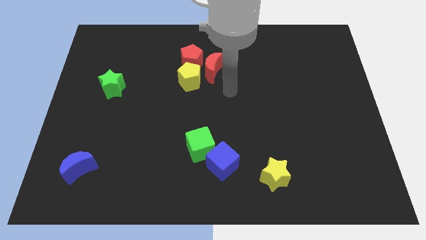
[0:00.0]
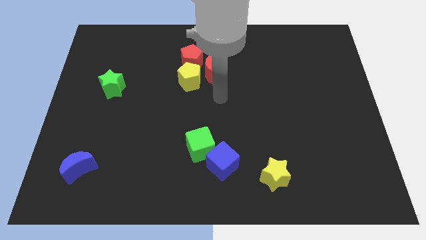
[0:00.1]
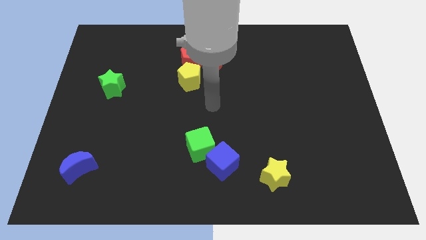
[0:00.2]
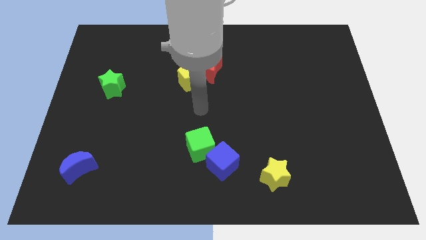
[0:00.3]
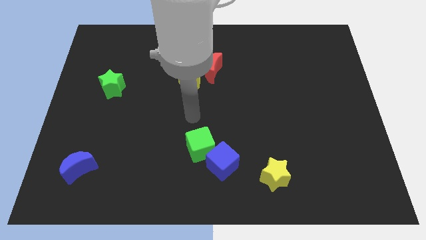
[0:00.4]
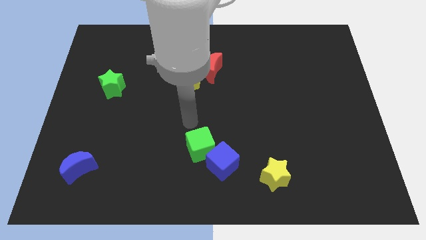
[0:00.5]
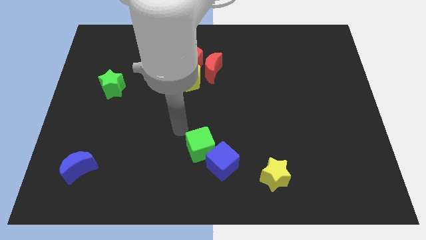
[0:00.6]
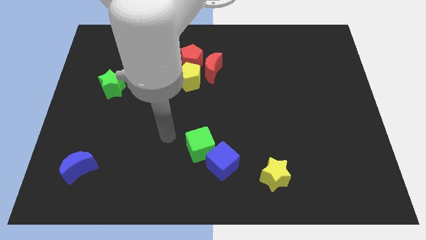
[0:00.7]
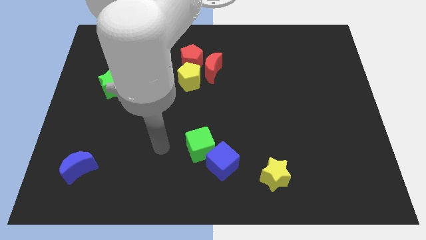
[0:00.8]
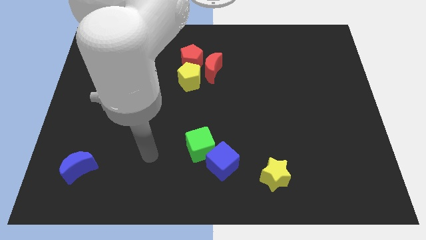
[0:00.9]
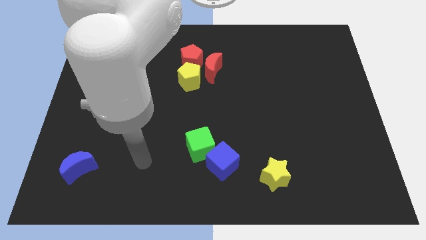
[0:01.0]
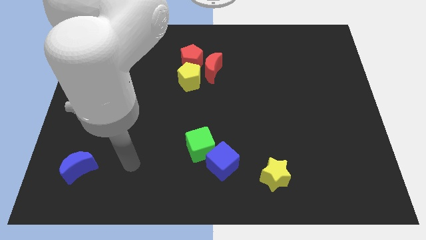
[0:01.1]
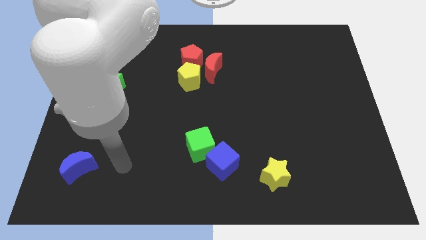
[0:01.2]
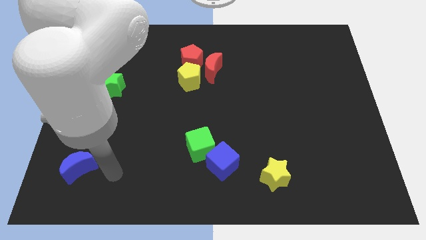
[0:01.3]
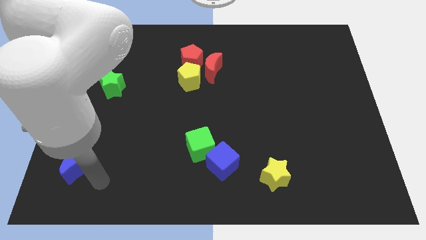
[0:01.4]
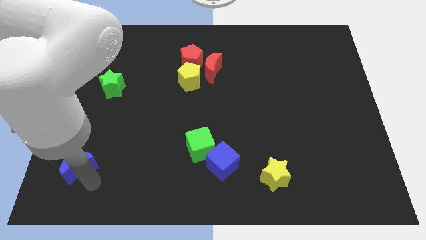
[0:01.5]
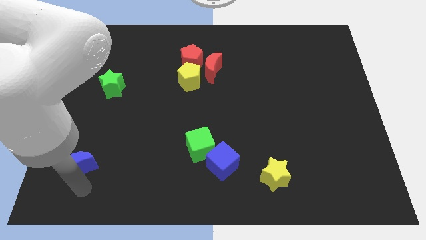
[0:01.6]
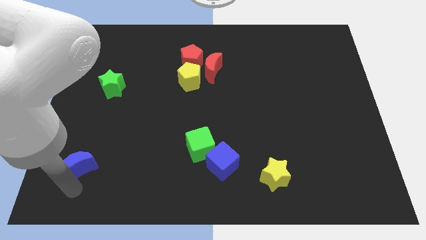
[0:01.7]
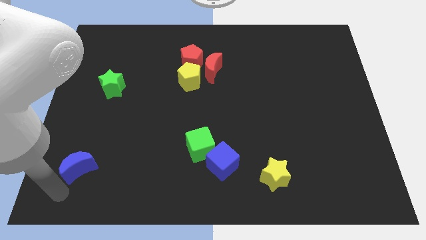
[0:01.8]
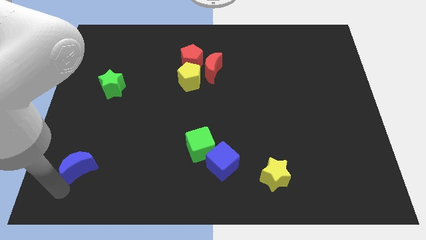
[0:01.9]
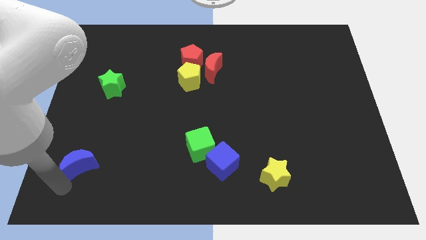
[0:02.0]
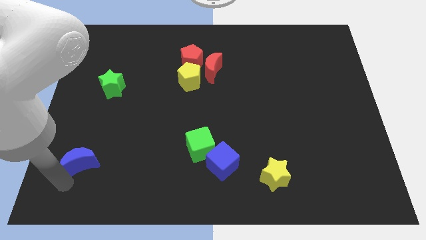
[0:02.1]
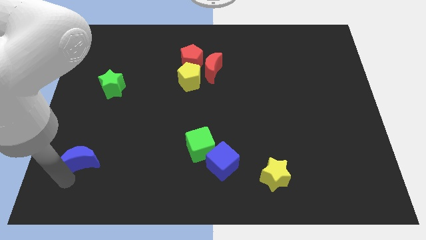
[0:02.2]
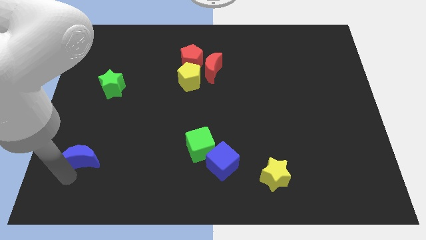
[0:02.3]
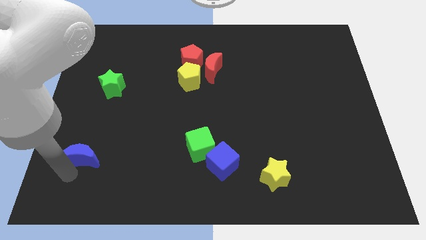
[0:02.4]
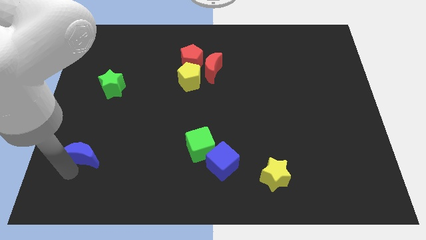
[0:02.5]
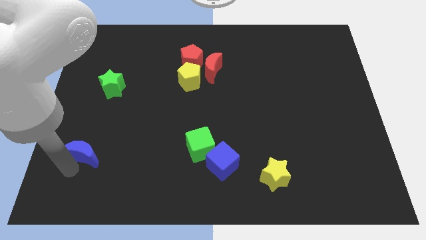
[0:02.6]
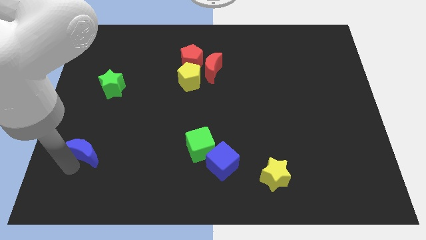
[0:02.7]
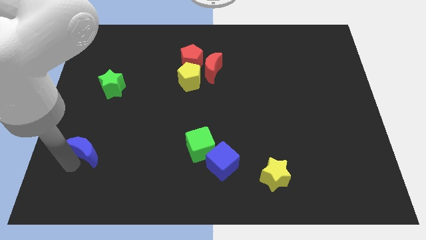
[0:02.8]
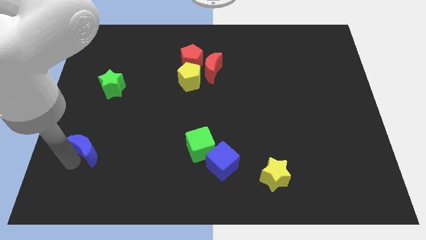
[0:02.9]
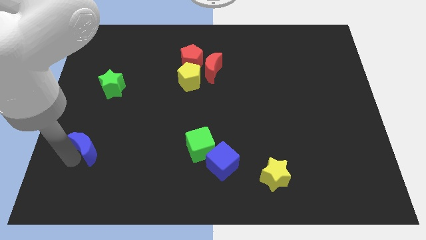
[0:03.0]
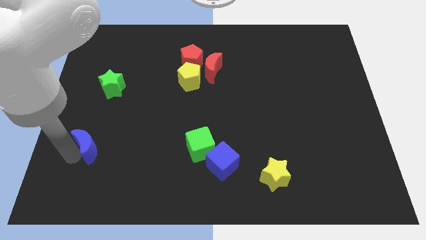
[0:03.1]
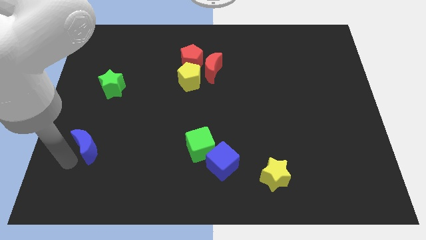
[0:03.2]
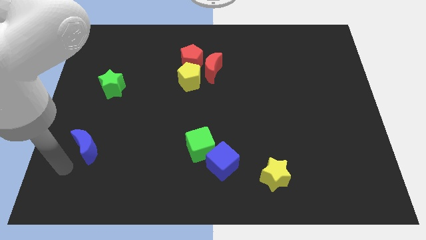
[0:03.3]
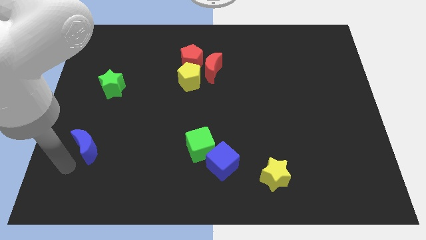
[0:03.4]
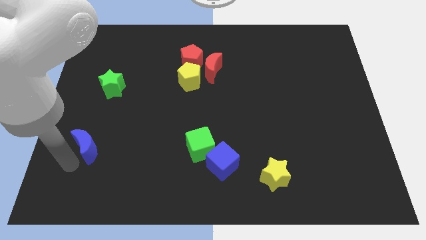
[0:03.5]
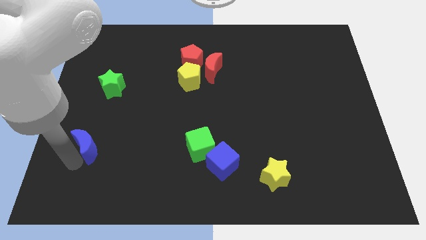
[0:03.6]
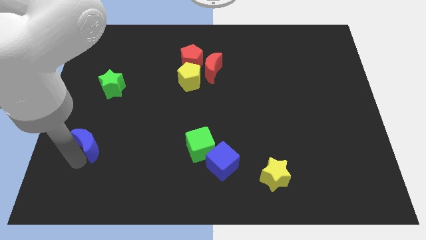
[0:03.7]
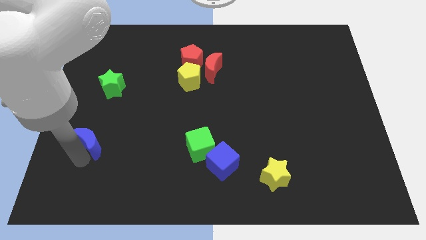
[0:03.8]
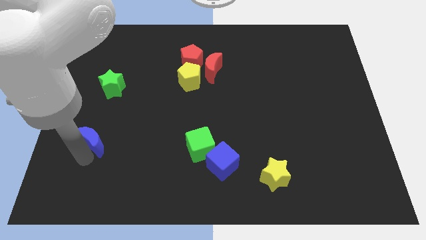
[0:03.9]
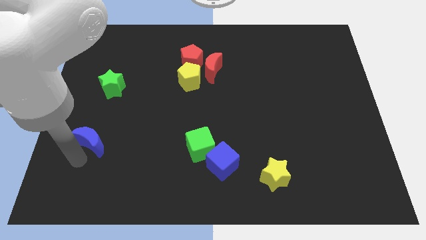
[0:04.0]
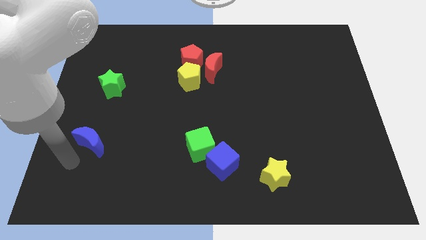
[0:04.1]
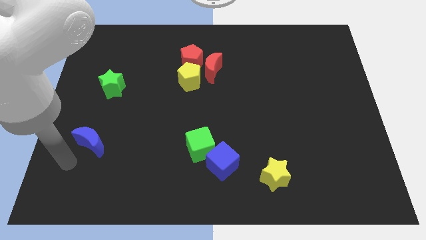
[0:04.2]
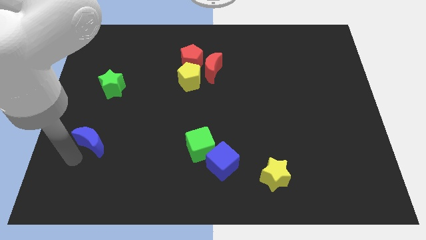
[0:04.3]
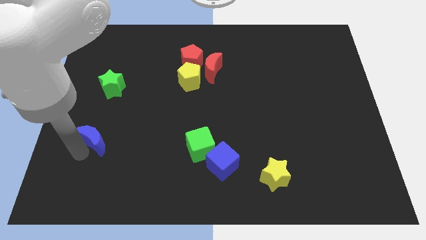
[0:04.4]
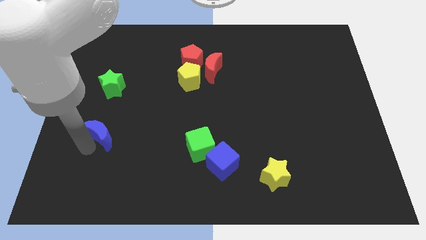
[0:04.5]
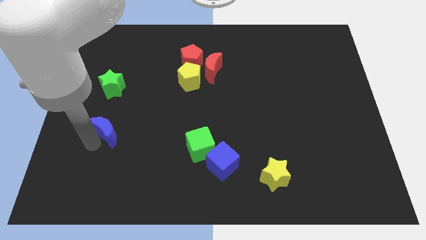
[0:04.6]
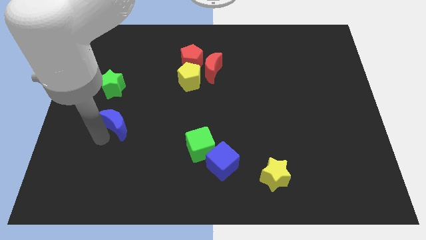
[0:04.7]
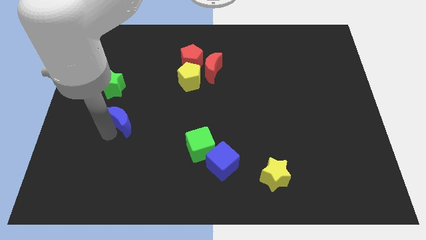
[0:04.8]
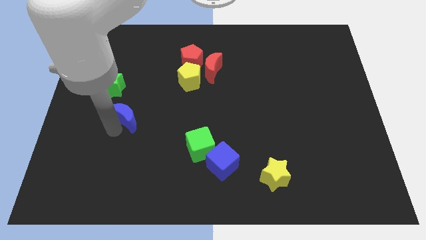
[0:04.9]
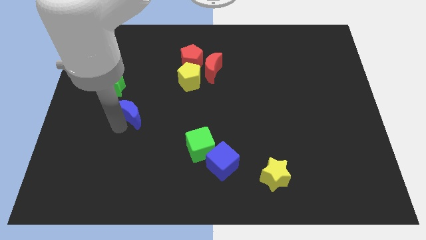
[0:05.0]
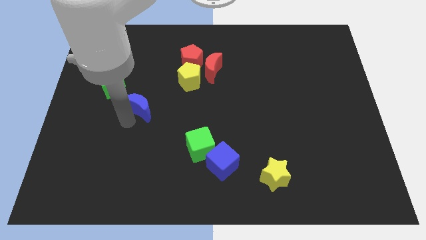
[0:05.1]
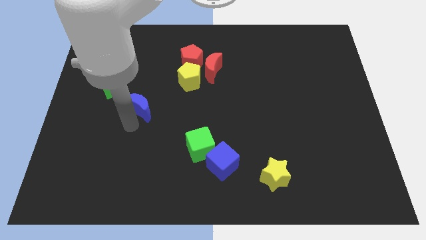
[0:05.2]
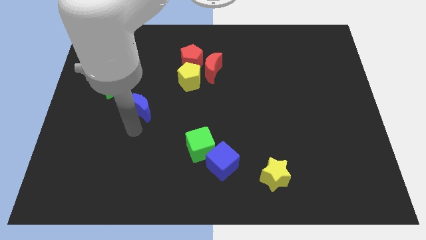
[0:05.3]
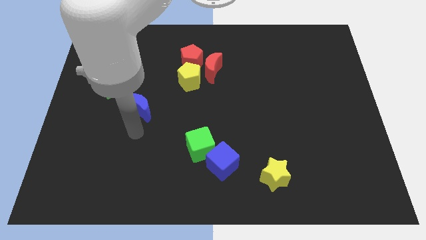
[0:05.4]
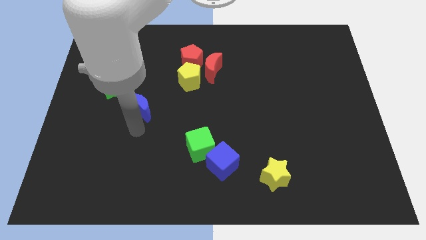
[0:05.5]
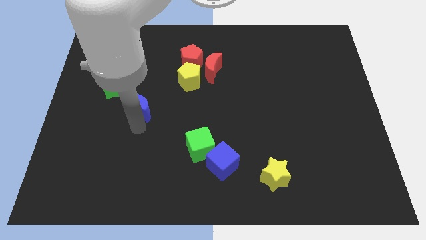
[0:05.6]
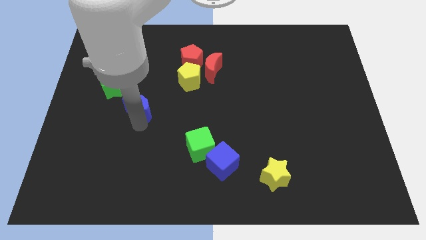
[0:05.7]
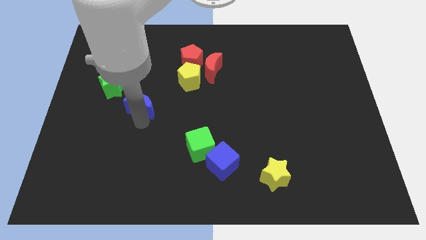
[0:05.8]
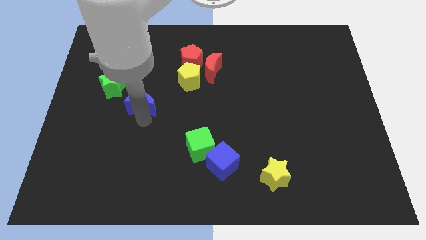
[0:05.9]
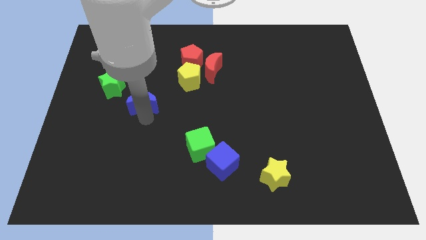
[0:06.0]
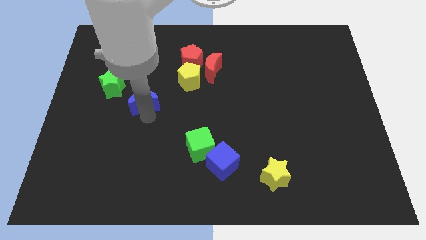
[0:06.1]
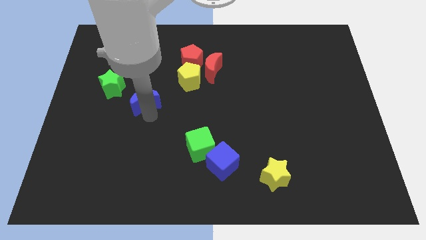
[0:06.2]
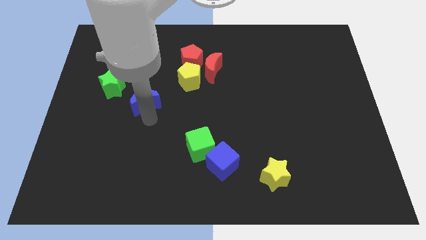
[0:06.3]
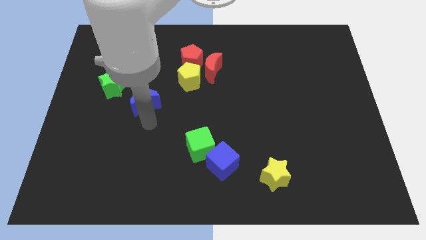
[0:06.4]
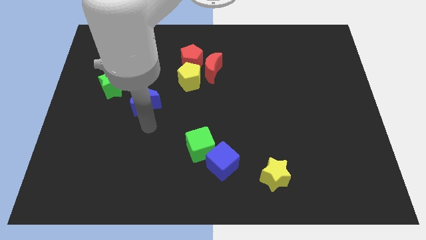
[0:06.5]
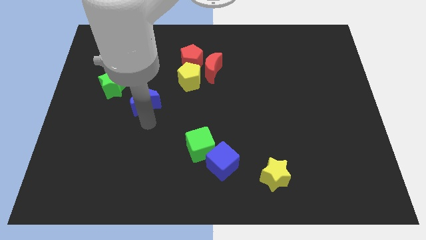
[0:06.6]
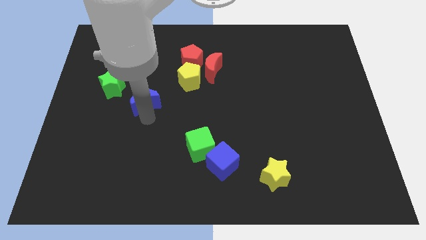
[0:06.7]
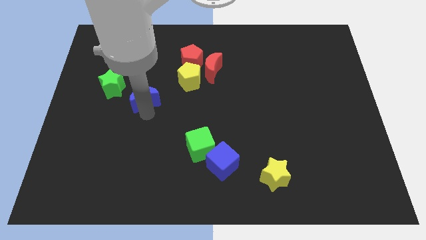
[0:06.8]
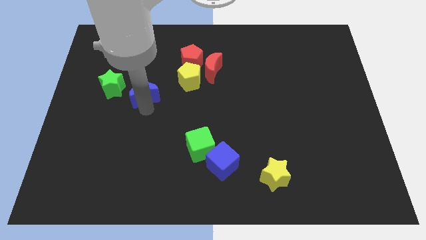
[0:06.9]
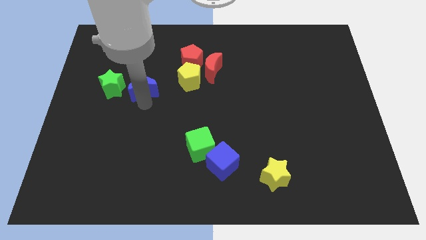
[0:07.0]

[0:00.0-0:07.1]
move the blue moon to the left of the yellow pentagon
